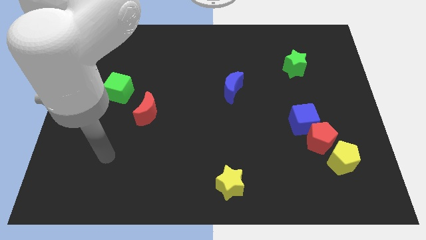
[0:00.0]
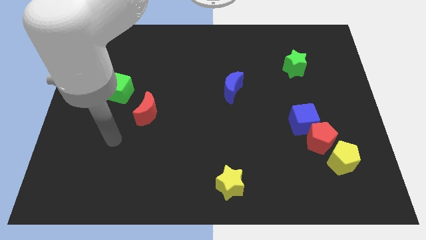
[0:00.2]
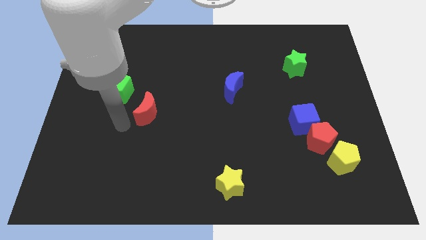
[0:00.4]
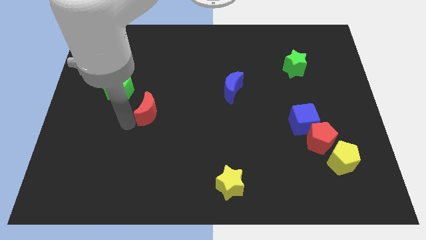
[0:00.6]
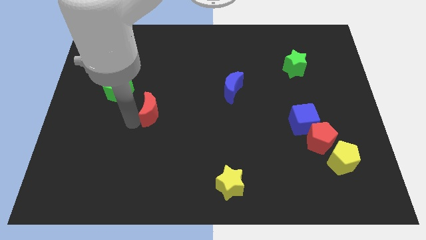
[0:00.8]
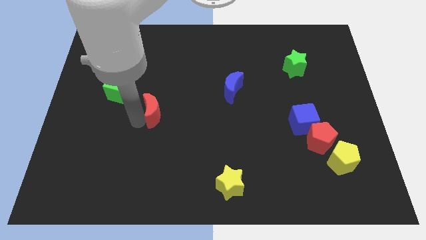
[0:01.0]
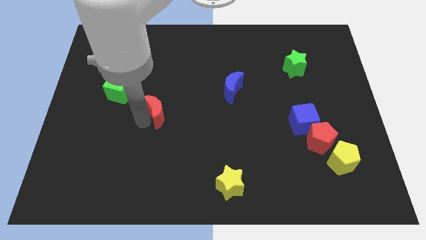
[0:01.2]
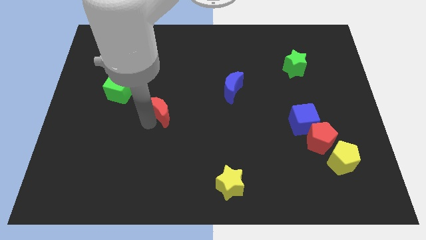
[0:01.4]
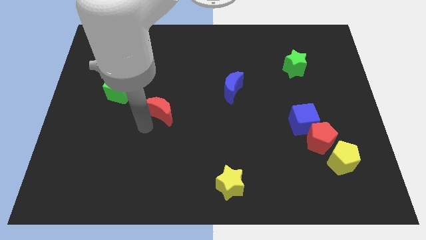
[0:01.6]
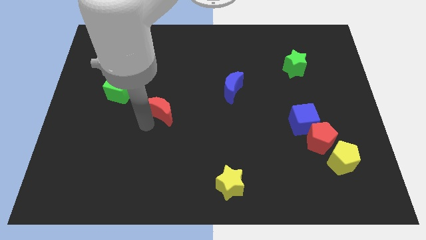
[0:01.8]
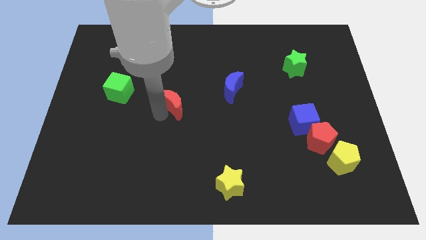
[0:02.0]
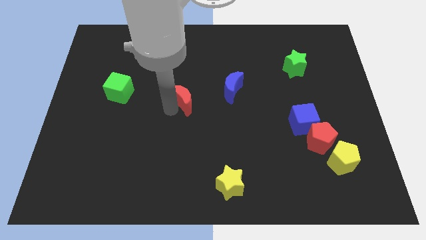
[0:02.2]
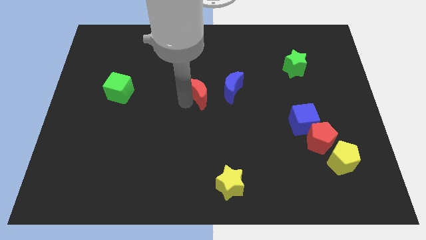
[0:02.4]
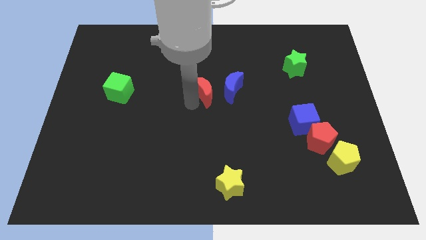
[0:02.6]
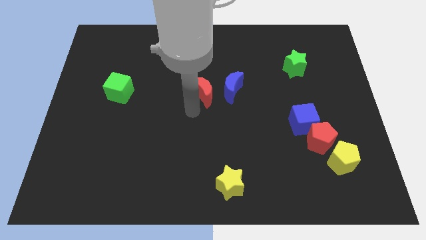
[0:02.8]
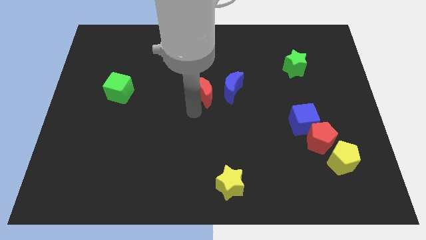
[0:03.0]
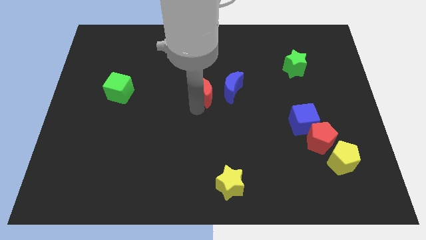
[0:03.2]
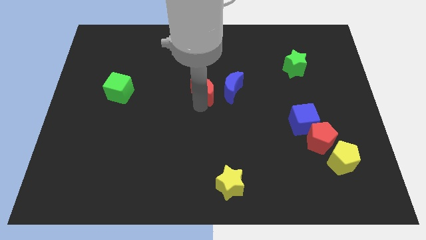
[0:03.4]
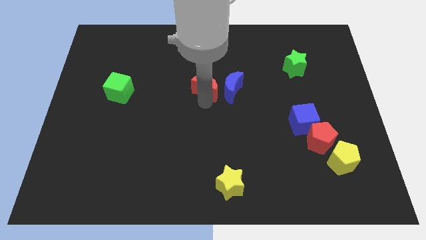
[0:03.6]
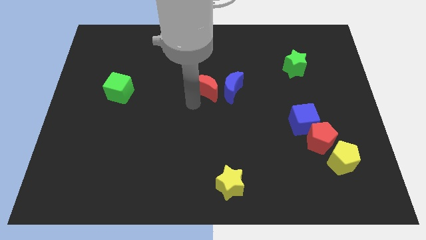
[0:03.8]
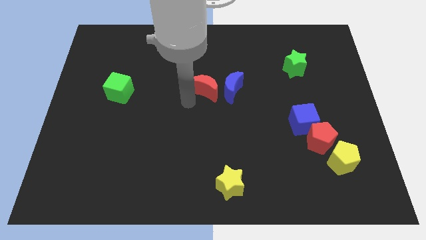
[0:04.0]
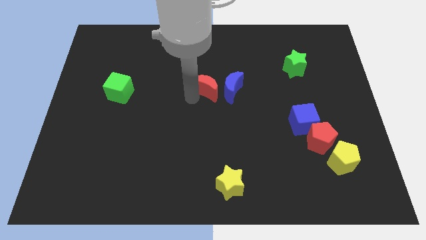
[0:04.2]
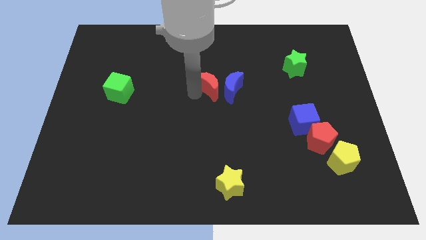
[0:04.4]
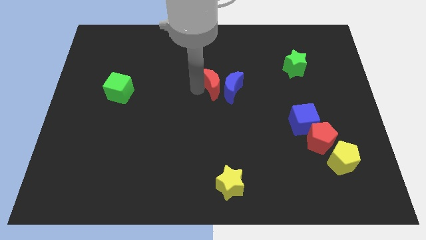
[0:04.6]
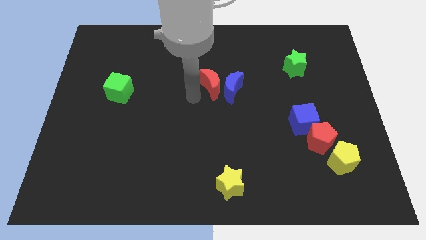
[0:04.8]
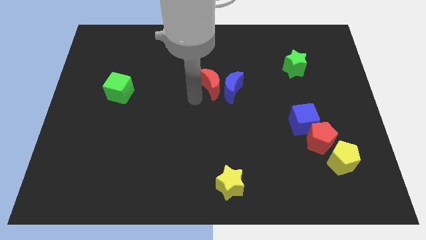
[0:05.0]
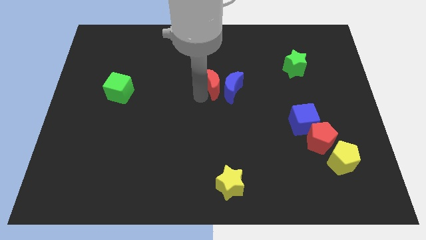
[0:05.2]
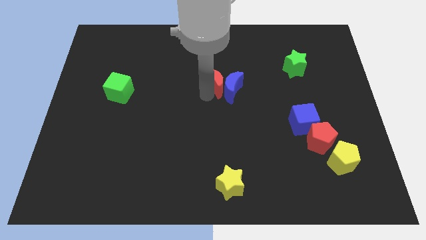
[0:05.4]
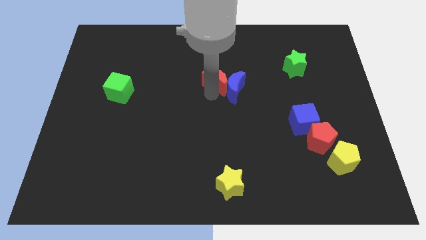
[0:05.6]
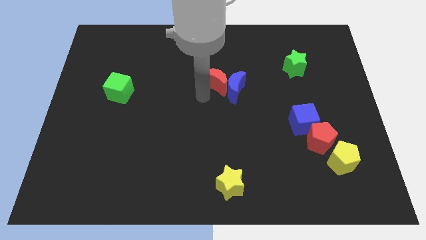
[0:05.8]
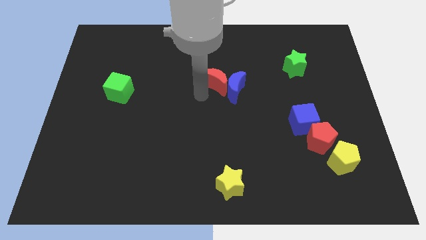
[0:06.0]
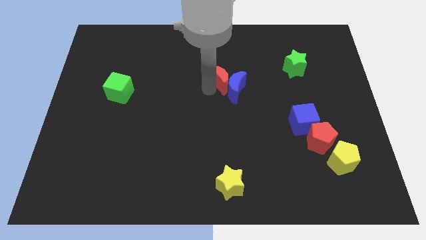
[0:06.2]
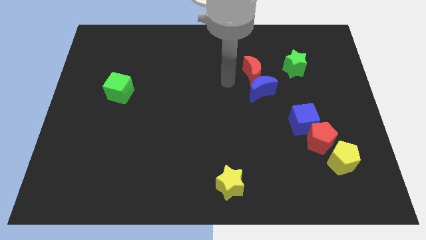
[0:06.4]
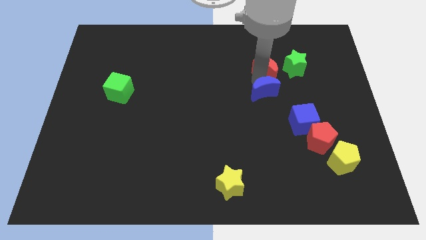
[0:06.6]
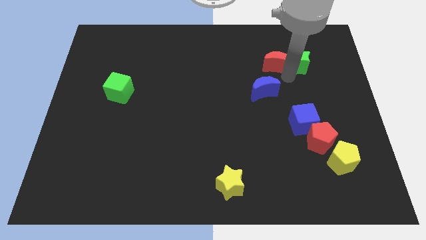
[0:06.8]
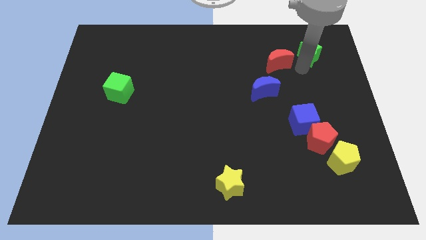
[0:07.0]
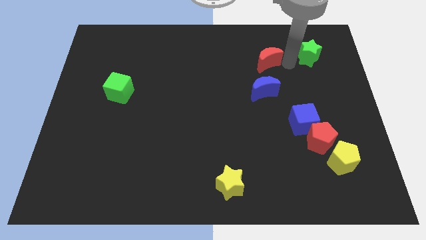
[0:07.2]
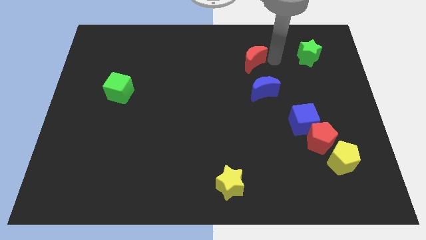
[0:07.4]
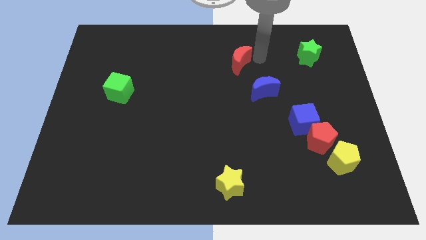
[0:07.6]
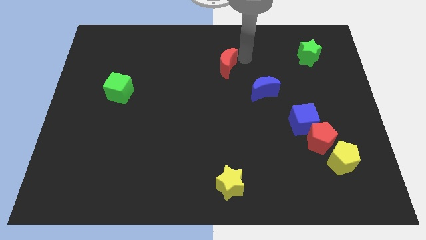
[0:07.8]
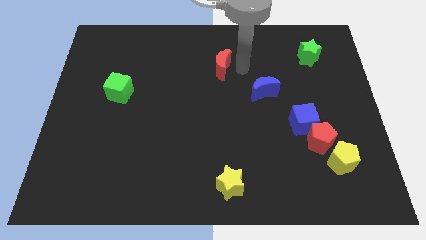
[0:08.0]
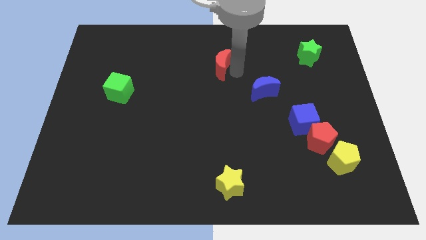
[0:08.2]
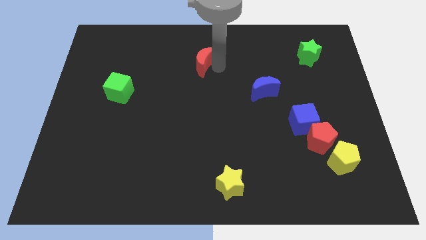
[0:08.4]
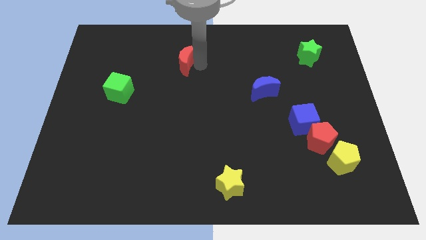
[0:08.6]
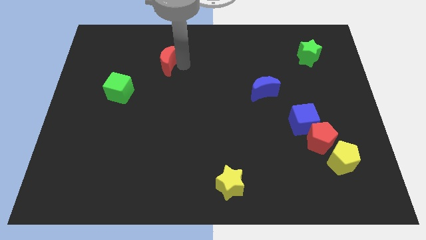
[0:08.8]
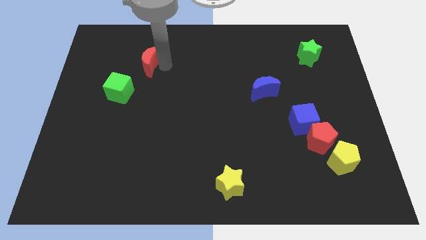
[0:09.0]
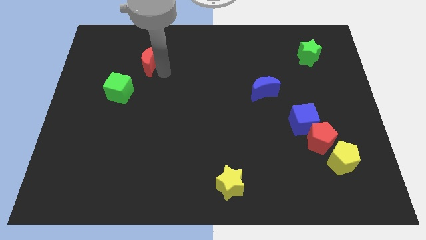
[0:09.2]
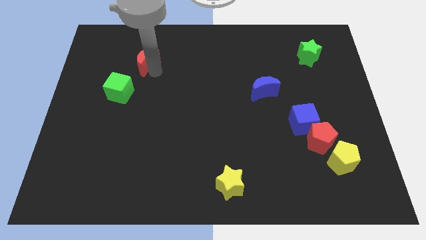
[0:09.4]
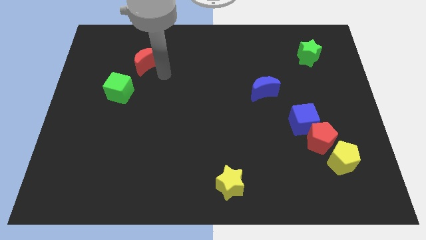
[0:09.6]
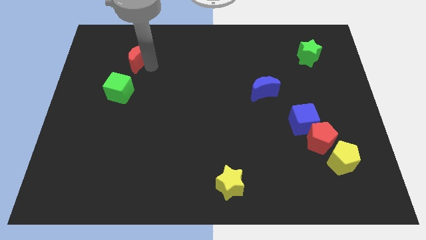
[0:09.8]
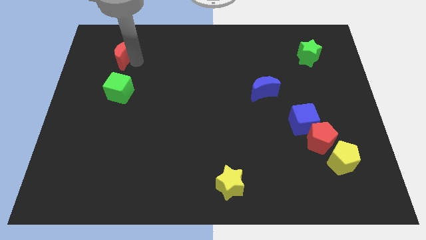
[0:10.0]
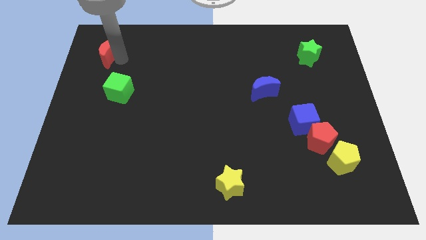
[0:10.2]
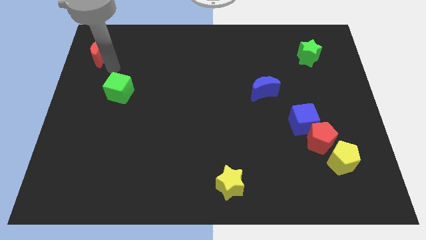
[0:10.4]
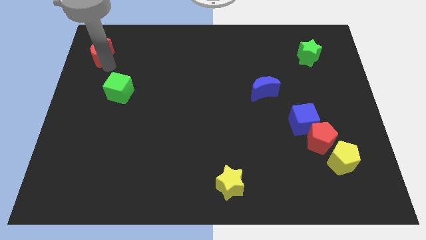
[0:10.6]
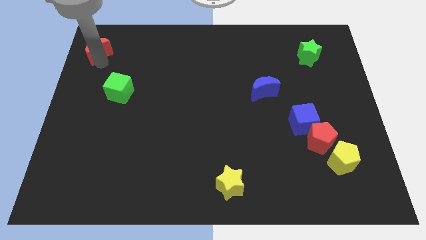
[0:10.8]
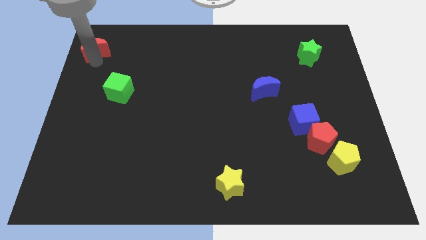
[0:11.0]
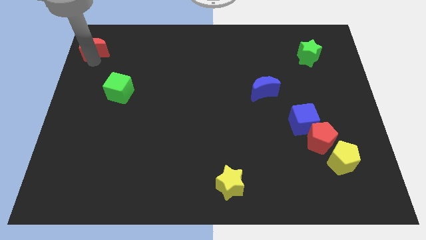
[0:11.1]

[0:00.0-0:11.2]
move the red moon to the upper left corner

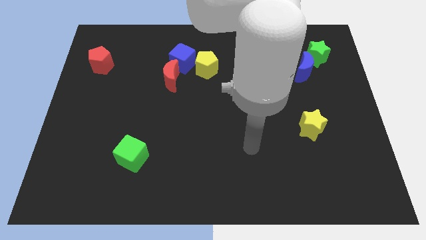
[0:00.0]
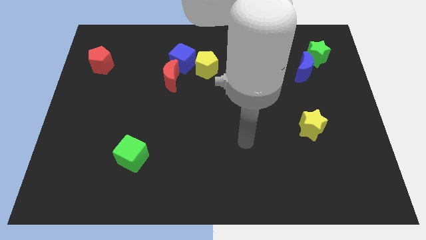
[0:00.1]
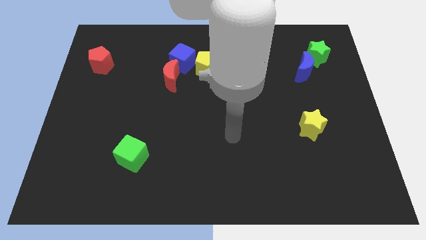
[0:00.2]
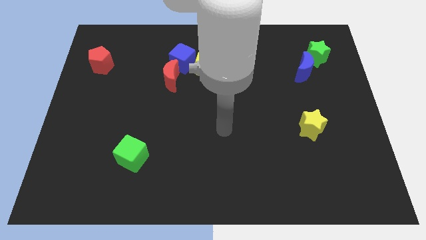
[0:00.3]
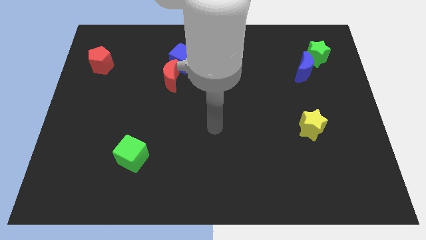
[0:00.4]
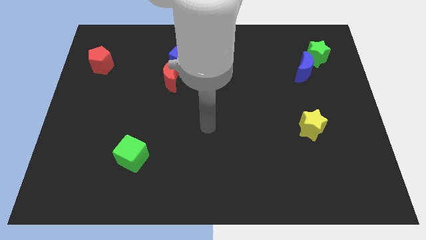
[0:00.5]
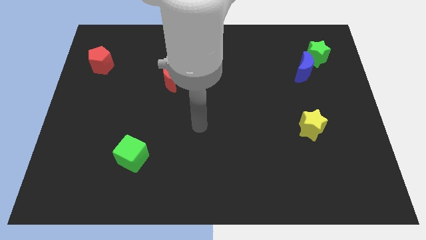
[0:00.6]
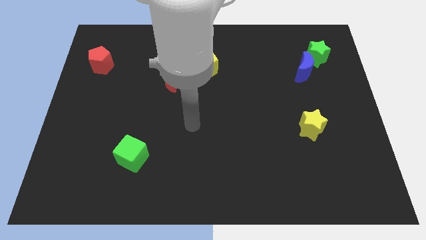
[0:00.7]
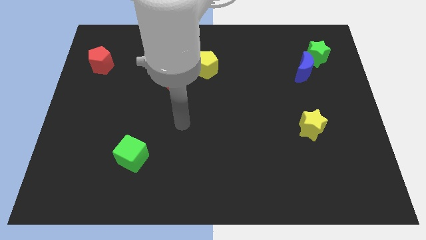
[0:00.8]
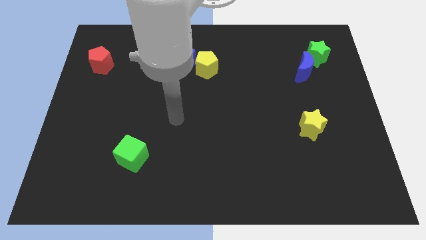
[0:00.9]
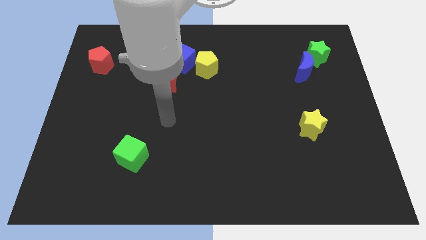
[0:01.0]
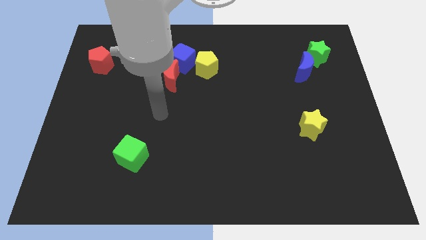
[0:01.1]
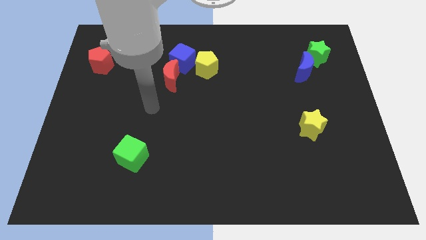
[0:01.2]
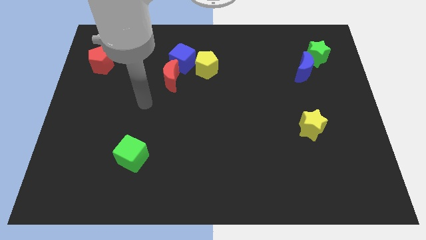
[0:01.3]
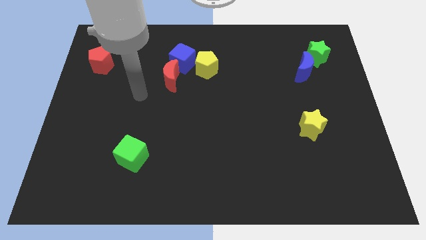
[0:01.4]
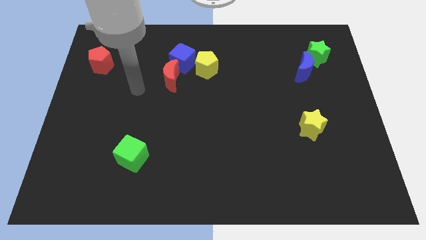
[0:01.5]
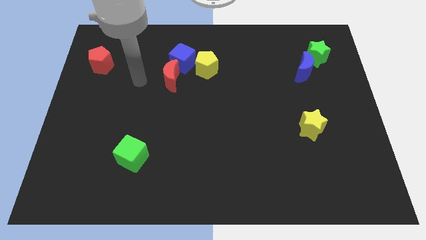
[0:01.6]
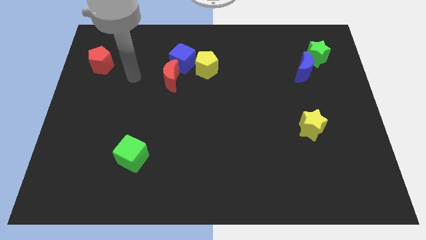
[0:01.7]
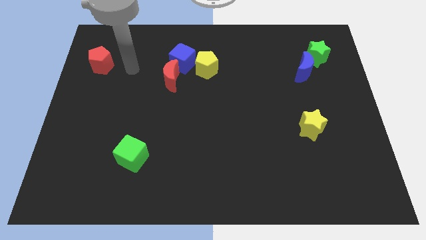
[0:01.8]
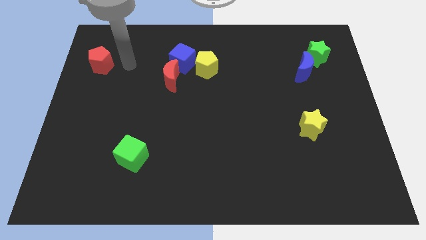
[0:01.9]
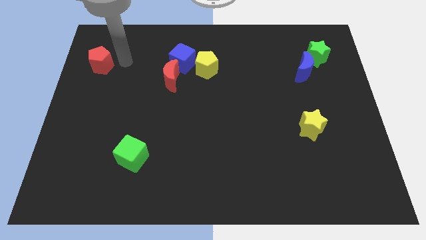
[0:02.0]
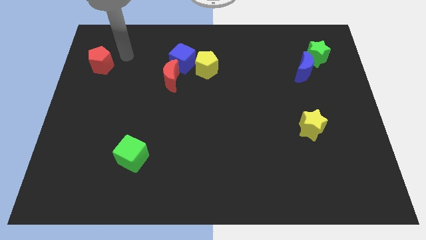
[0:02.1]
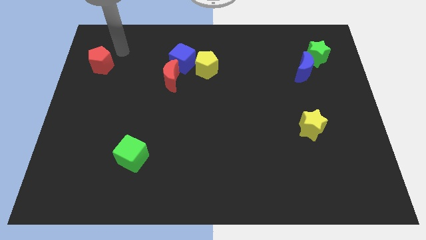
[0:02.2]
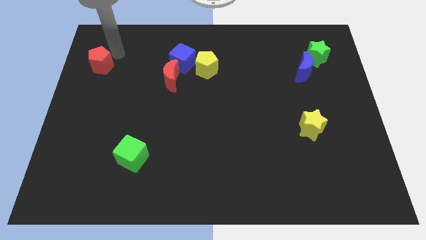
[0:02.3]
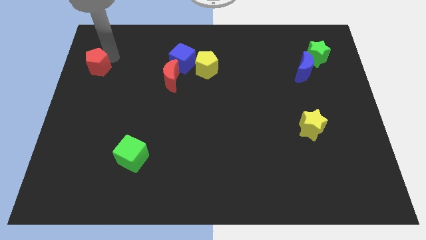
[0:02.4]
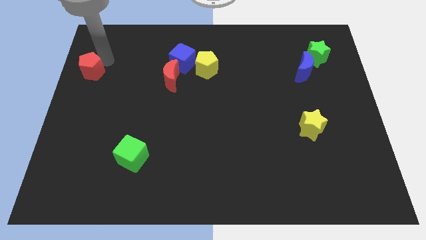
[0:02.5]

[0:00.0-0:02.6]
move the red pentagon to the left side
